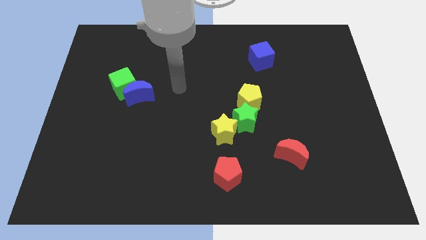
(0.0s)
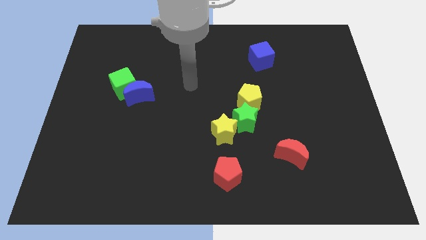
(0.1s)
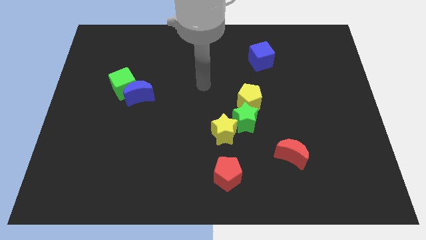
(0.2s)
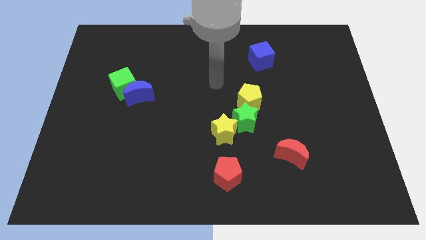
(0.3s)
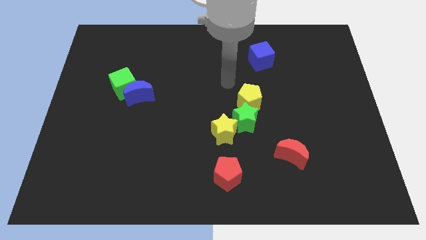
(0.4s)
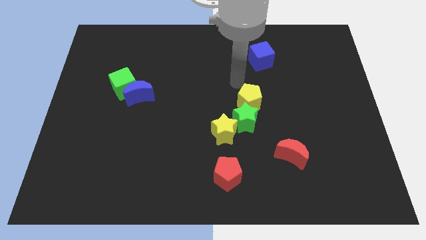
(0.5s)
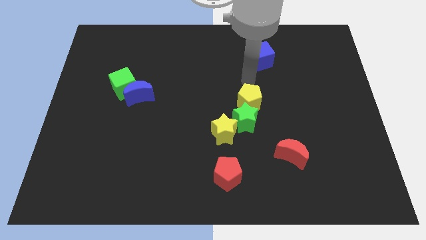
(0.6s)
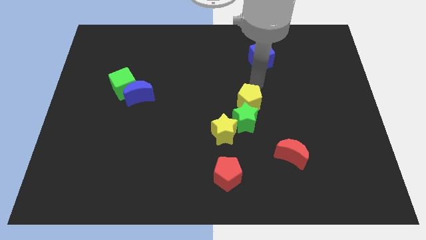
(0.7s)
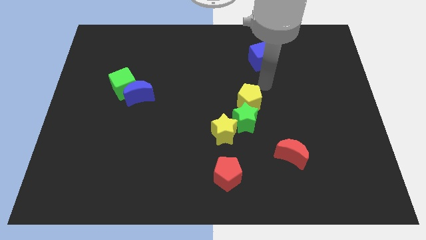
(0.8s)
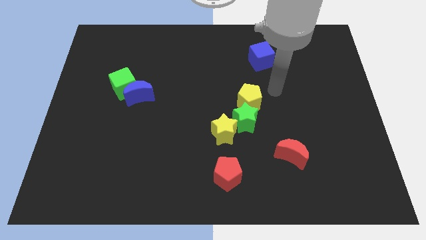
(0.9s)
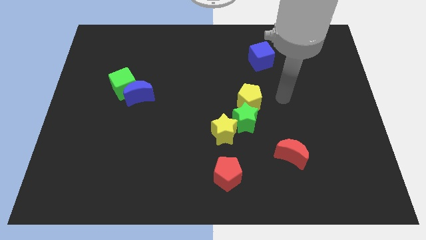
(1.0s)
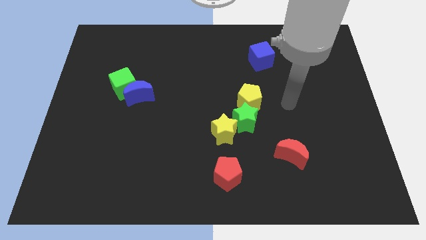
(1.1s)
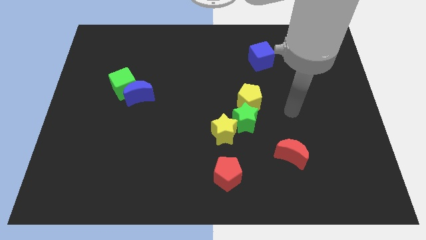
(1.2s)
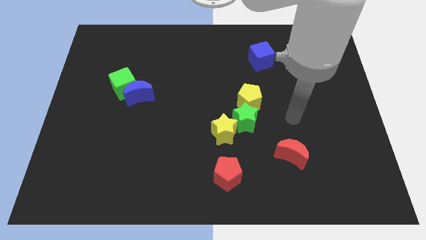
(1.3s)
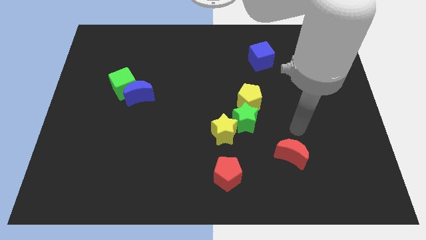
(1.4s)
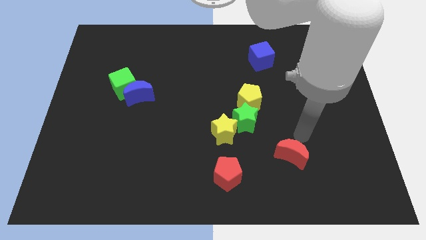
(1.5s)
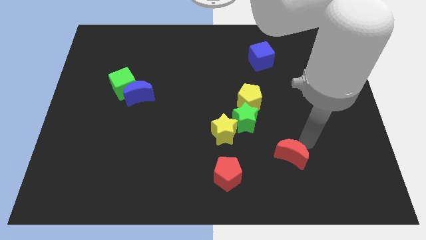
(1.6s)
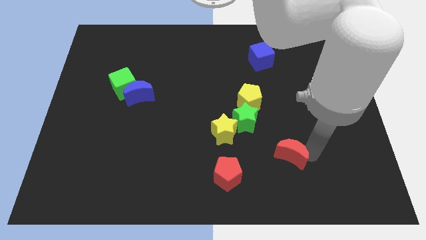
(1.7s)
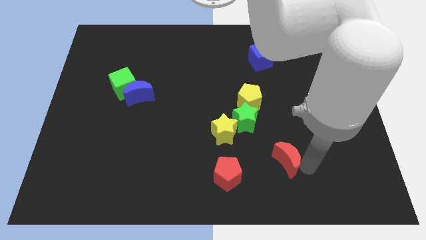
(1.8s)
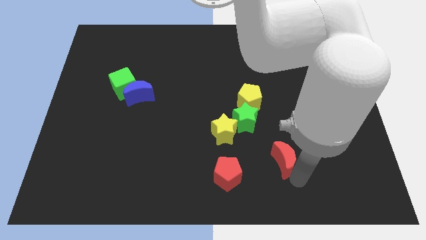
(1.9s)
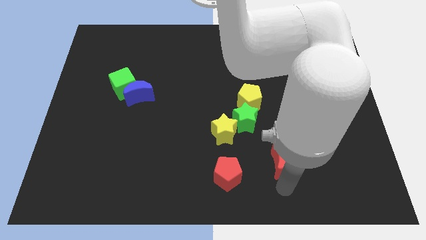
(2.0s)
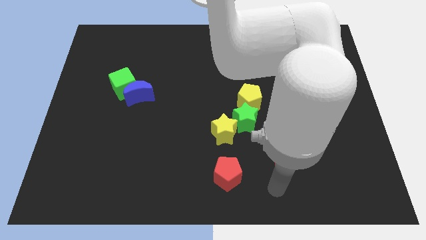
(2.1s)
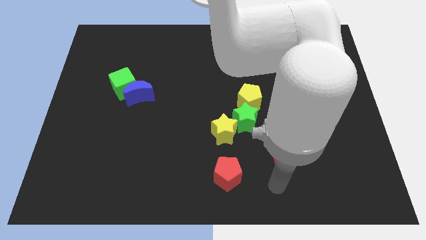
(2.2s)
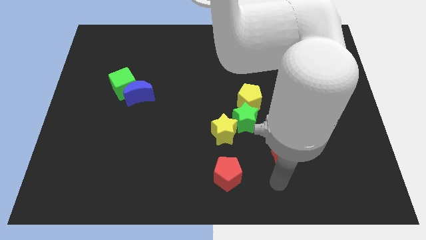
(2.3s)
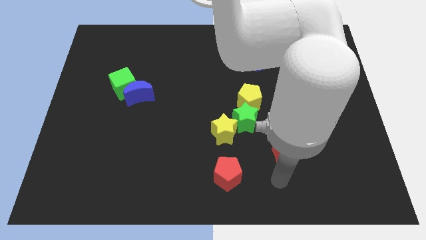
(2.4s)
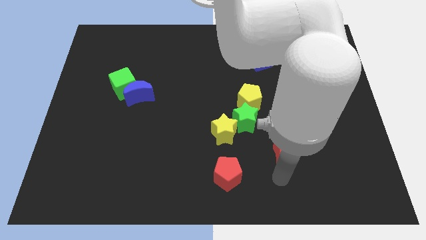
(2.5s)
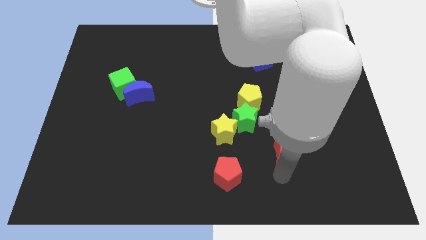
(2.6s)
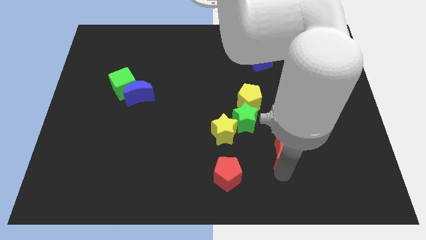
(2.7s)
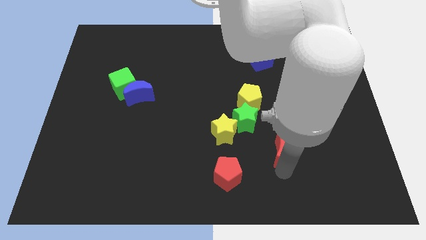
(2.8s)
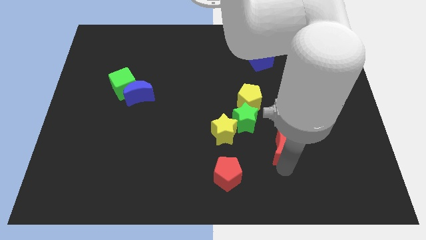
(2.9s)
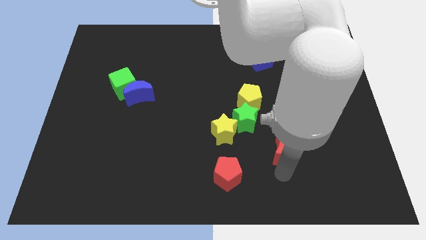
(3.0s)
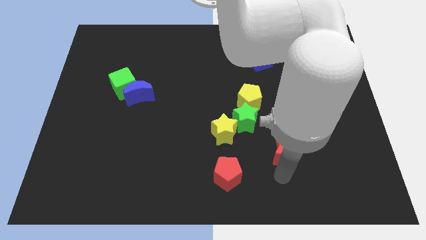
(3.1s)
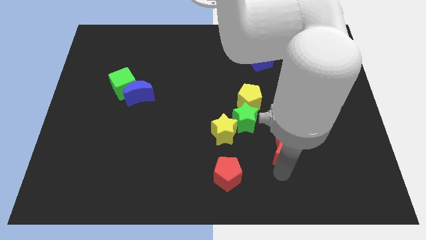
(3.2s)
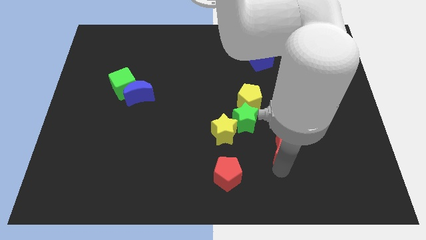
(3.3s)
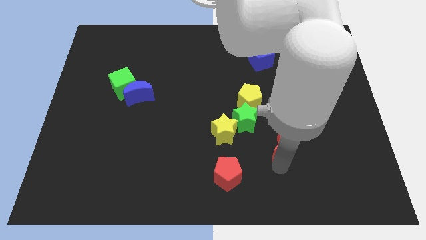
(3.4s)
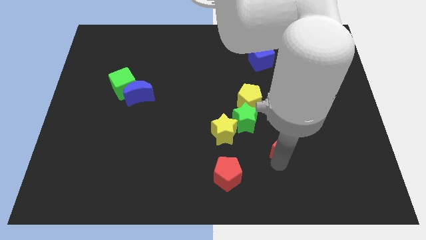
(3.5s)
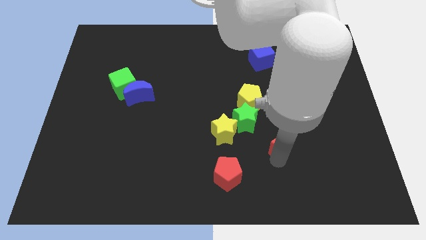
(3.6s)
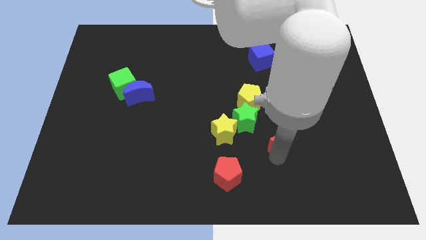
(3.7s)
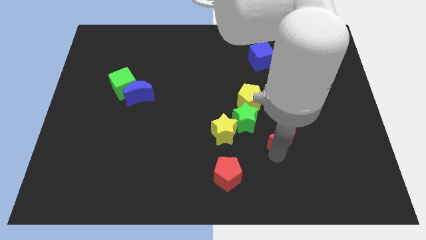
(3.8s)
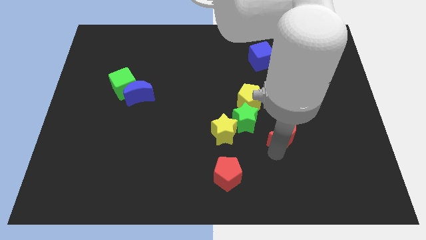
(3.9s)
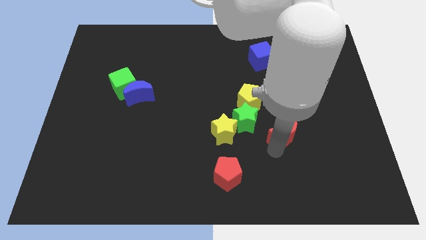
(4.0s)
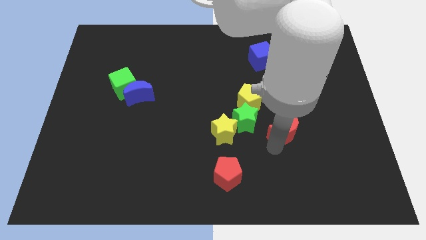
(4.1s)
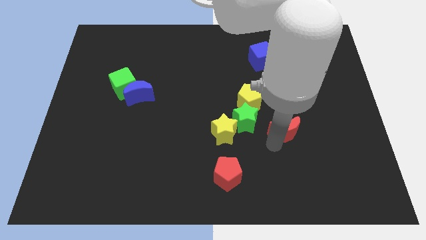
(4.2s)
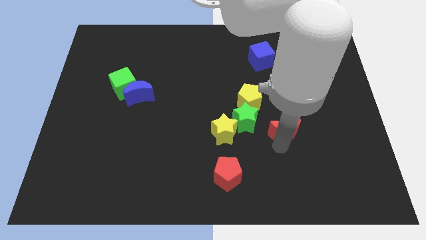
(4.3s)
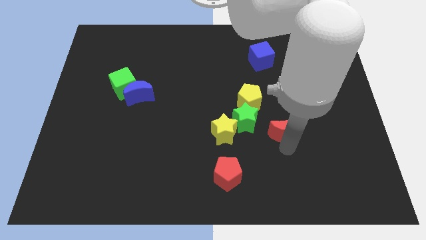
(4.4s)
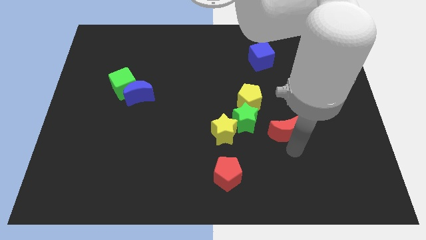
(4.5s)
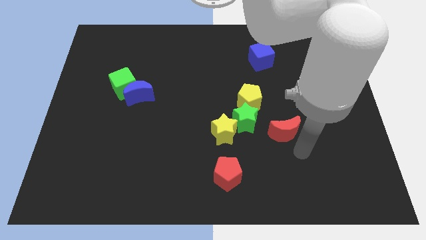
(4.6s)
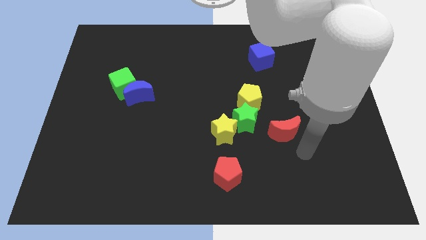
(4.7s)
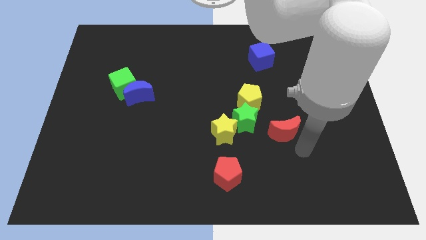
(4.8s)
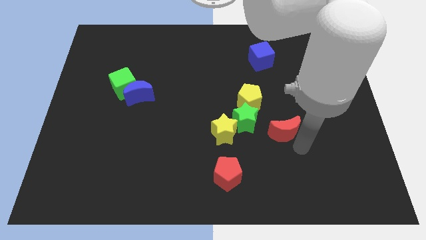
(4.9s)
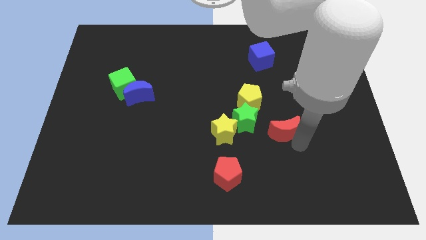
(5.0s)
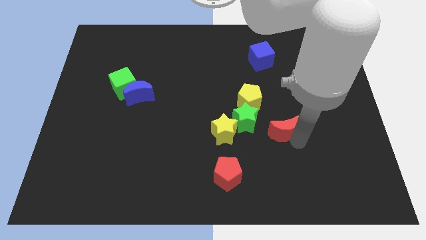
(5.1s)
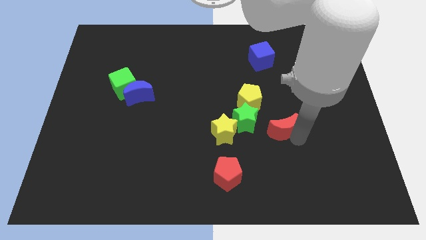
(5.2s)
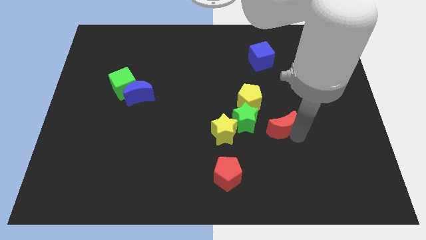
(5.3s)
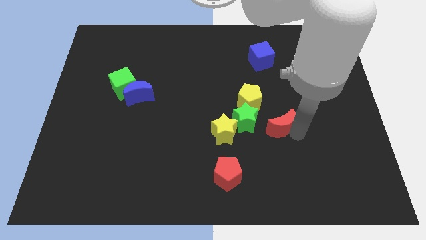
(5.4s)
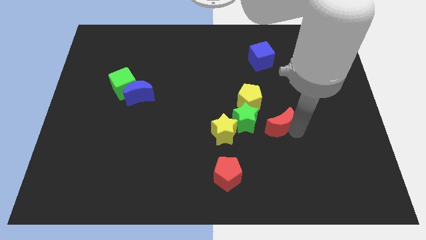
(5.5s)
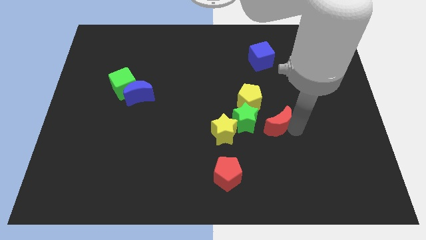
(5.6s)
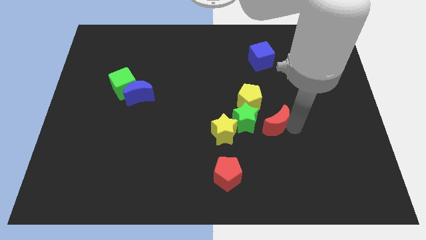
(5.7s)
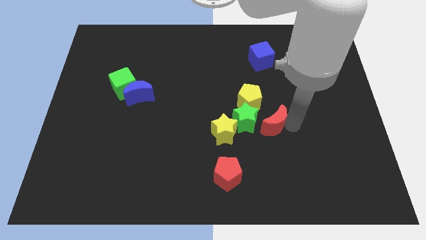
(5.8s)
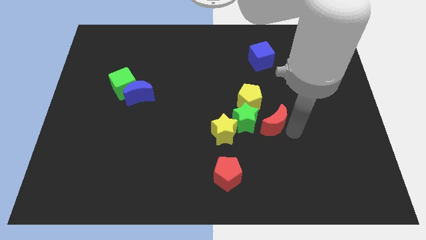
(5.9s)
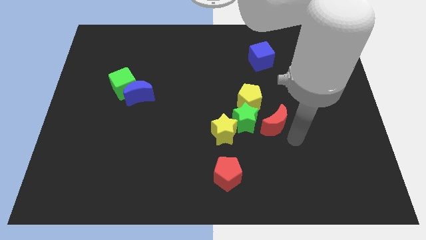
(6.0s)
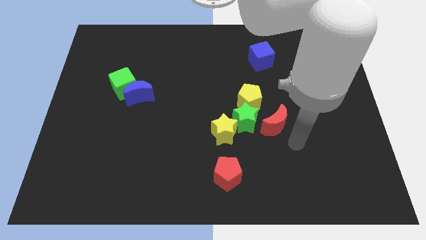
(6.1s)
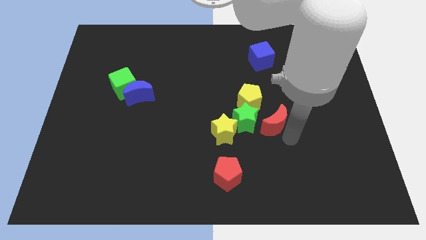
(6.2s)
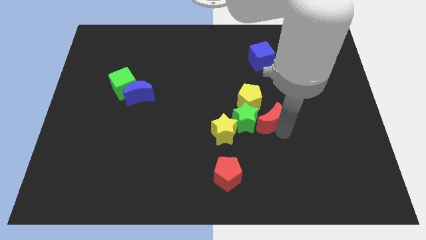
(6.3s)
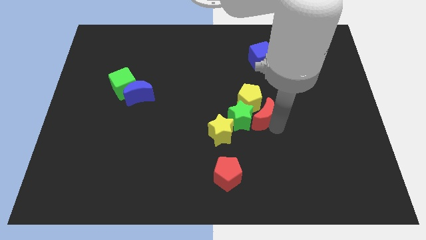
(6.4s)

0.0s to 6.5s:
put the red moon next to the yellow pentagon

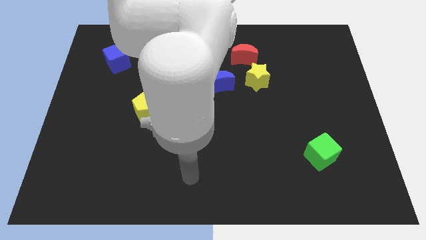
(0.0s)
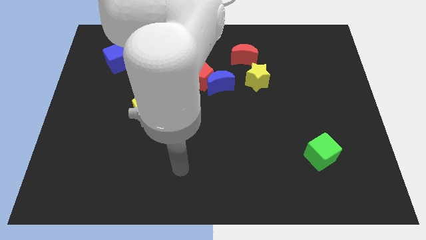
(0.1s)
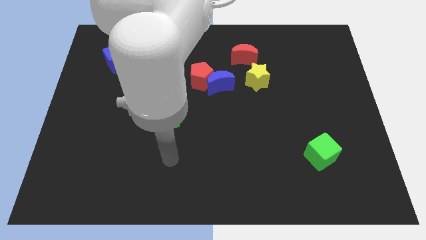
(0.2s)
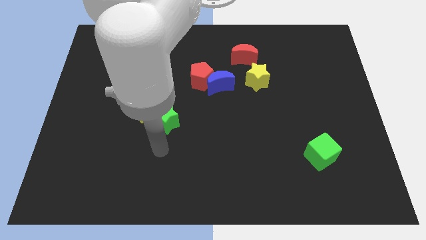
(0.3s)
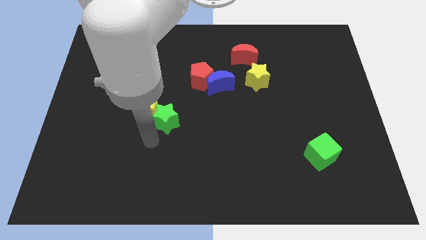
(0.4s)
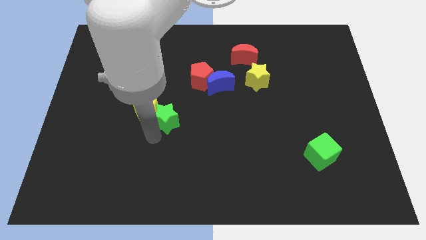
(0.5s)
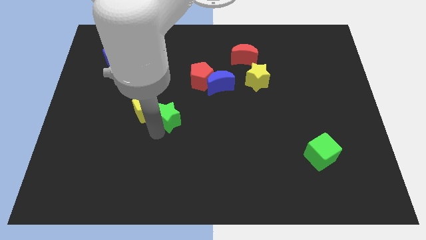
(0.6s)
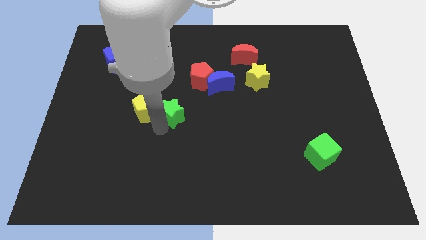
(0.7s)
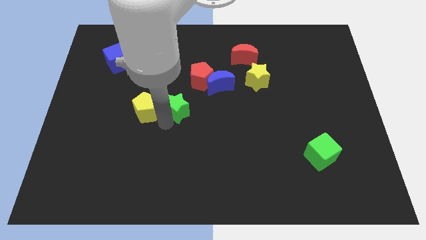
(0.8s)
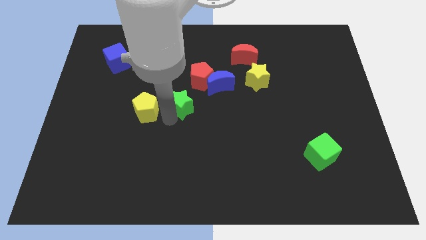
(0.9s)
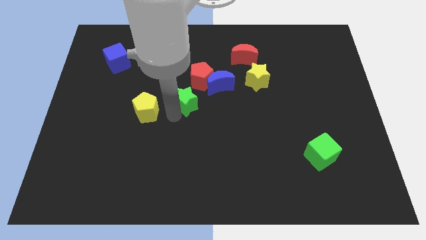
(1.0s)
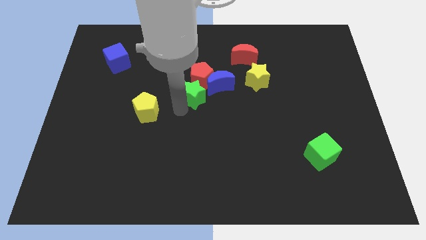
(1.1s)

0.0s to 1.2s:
move the green star to the red pentagon
